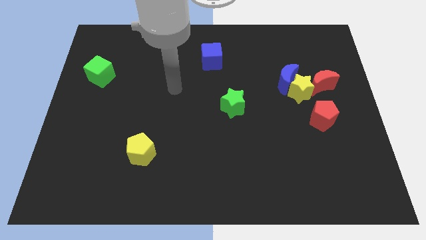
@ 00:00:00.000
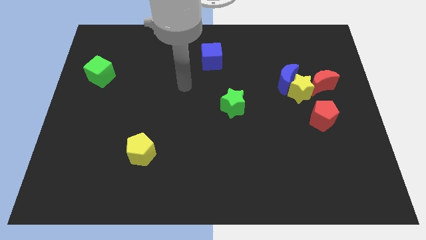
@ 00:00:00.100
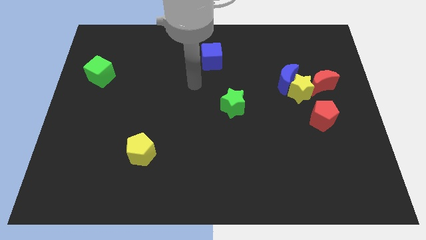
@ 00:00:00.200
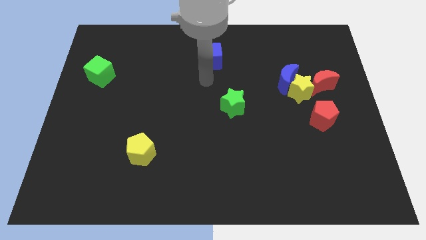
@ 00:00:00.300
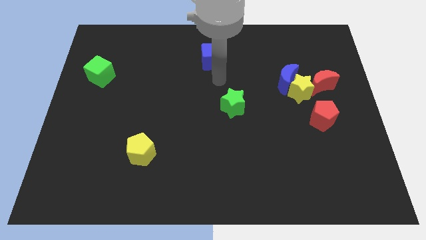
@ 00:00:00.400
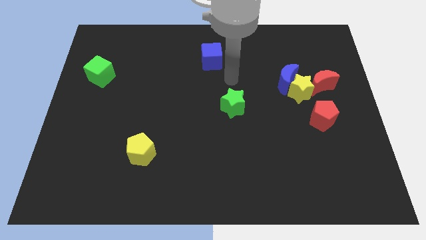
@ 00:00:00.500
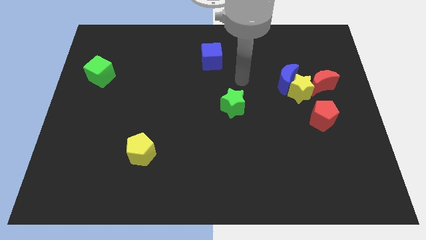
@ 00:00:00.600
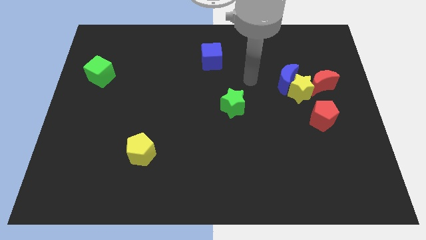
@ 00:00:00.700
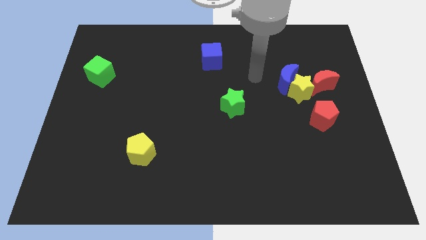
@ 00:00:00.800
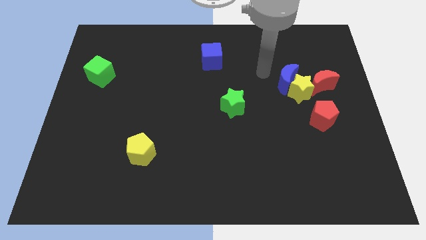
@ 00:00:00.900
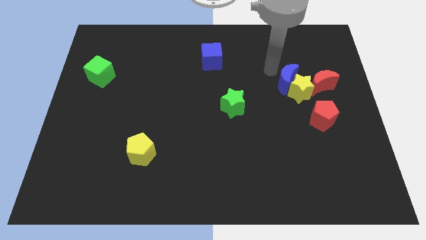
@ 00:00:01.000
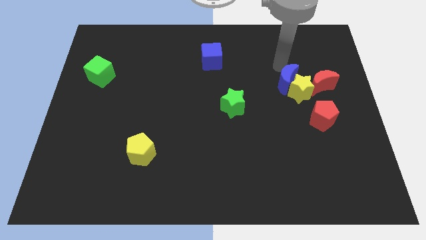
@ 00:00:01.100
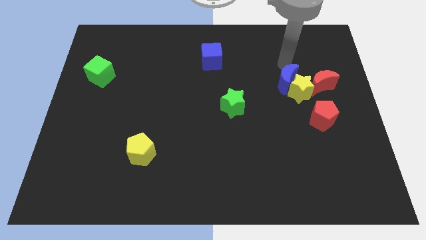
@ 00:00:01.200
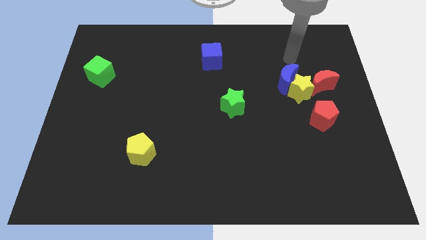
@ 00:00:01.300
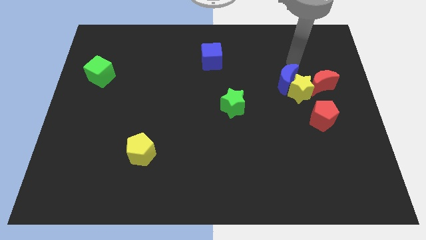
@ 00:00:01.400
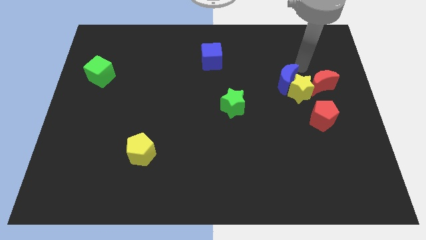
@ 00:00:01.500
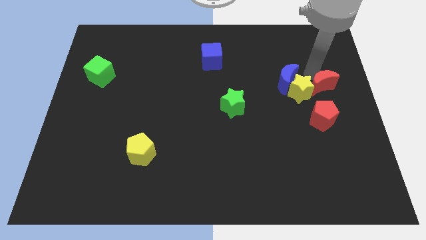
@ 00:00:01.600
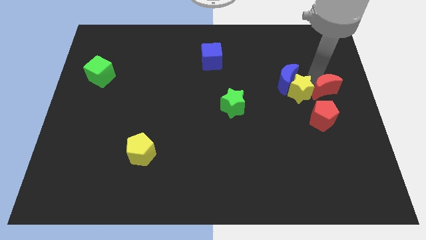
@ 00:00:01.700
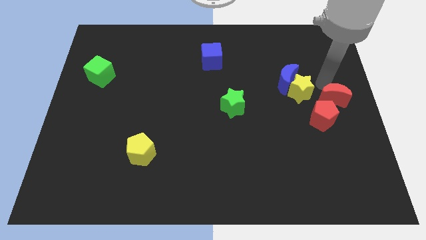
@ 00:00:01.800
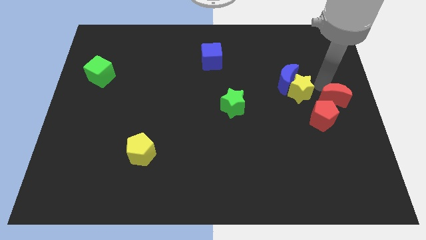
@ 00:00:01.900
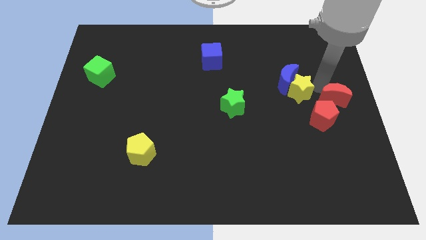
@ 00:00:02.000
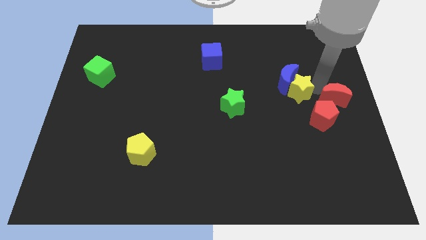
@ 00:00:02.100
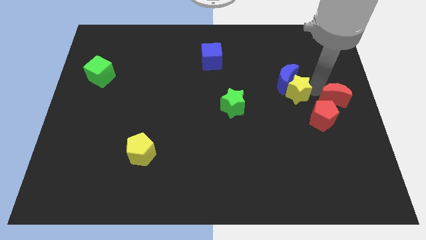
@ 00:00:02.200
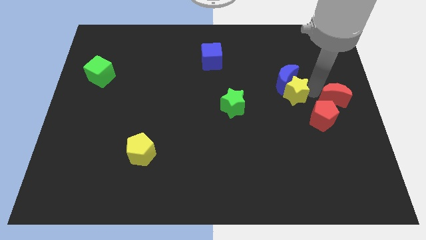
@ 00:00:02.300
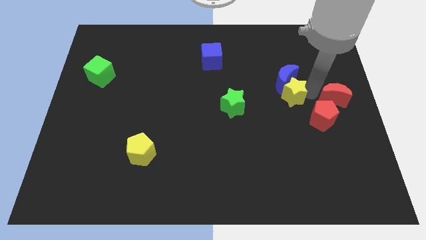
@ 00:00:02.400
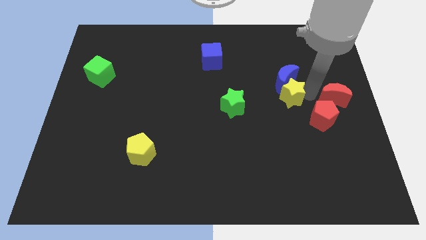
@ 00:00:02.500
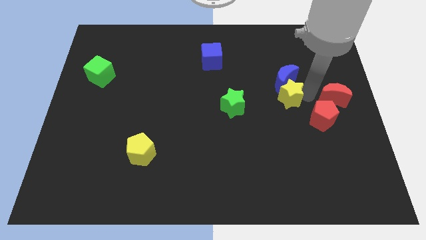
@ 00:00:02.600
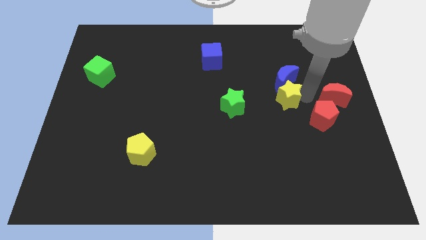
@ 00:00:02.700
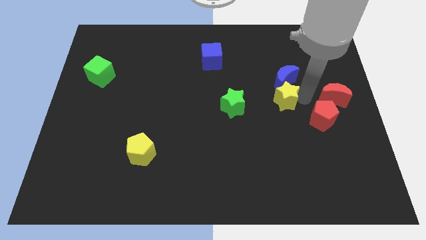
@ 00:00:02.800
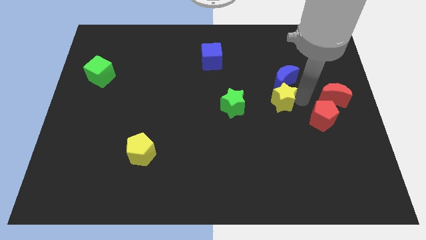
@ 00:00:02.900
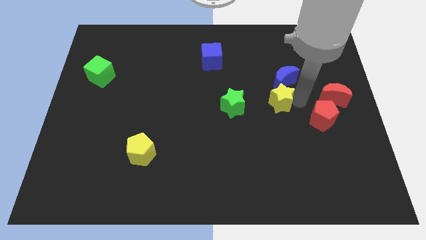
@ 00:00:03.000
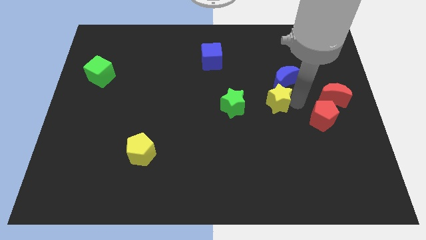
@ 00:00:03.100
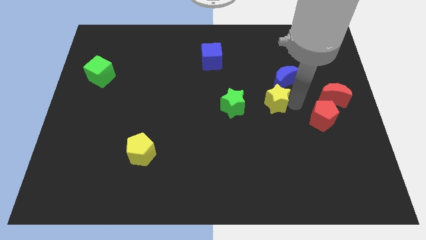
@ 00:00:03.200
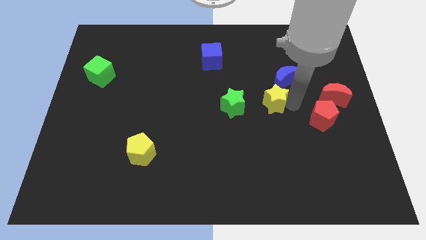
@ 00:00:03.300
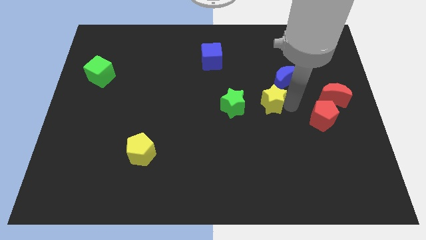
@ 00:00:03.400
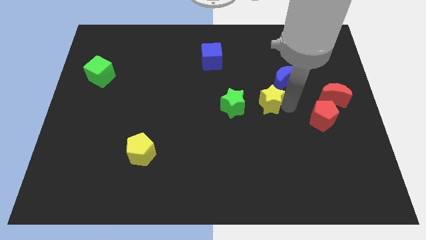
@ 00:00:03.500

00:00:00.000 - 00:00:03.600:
separate the yellow star from the group of blocks

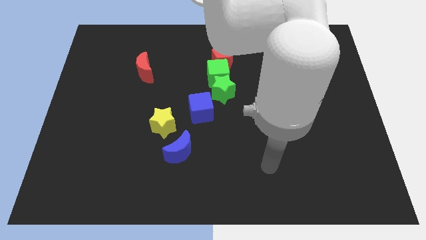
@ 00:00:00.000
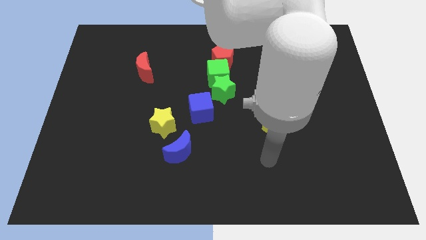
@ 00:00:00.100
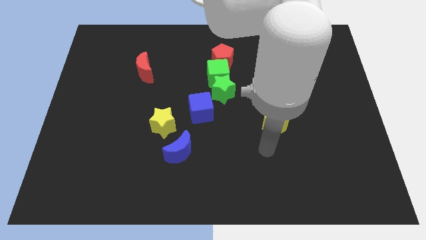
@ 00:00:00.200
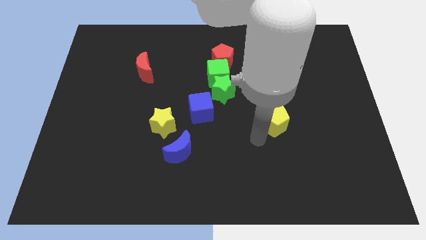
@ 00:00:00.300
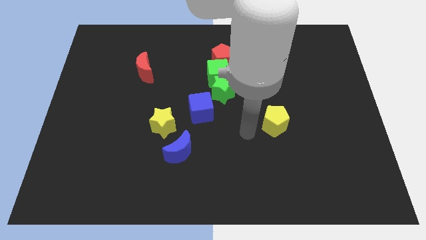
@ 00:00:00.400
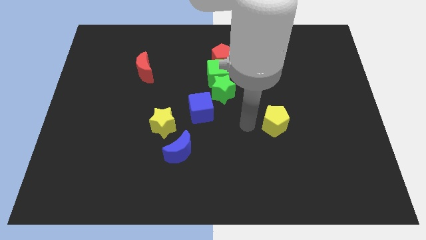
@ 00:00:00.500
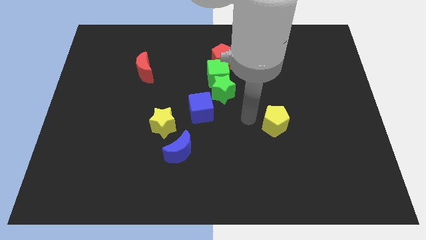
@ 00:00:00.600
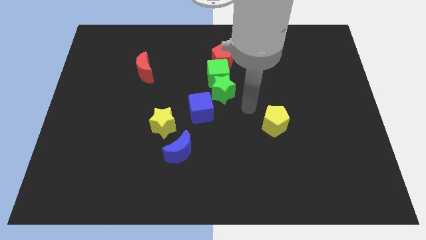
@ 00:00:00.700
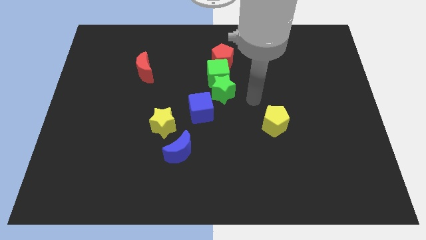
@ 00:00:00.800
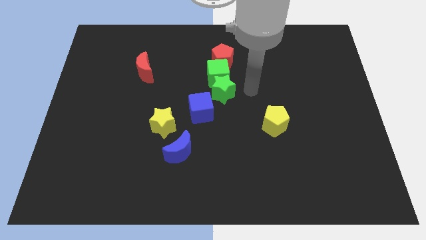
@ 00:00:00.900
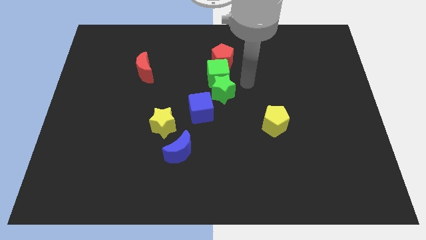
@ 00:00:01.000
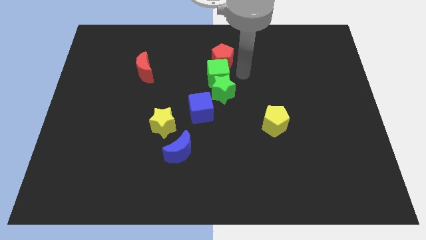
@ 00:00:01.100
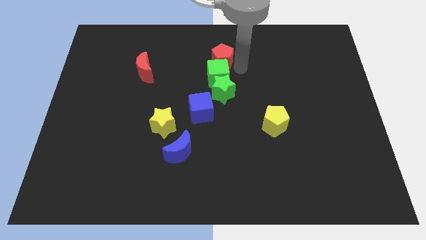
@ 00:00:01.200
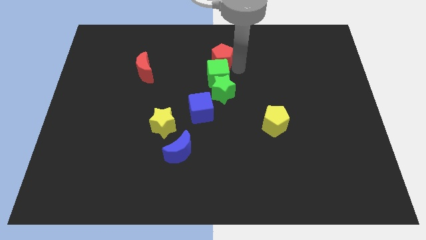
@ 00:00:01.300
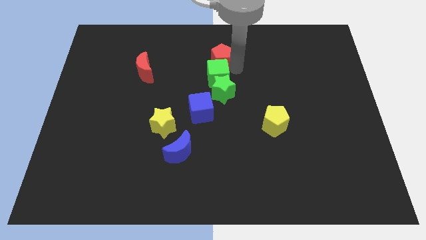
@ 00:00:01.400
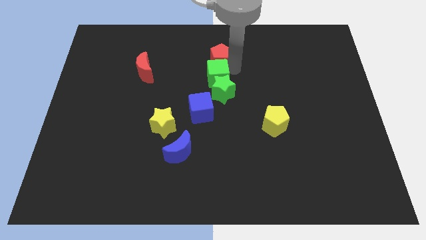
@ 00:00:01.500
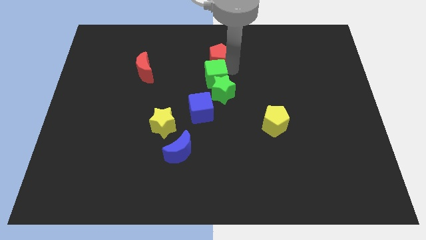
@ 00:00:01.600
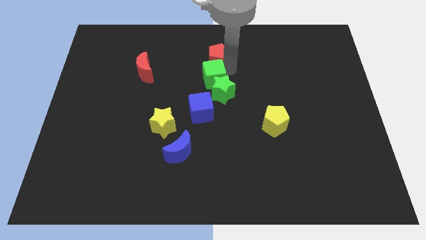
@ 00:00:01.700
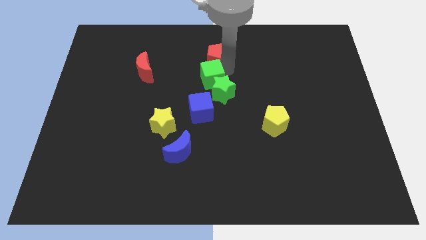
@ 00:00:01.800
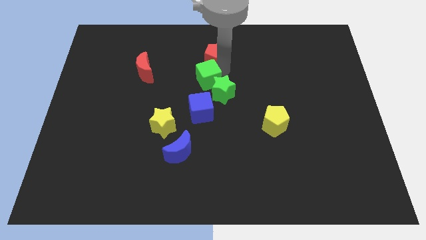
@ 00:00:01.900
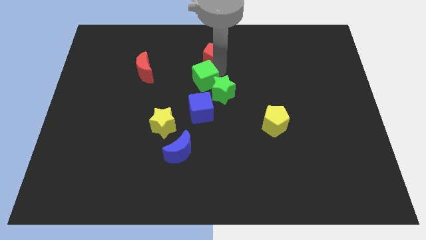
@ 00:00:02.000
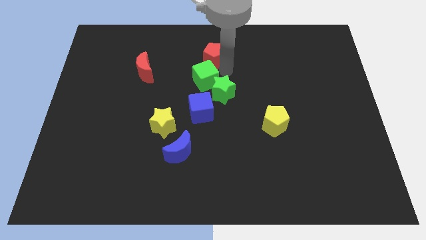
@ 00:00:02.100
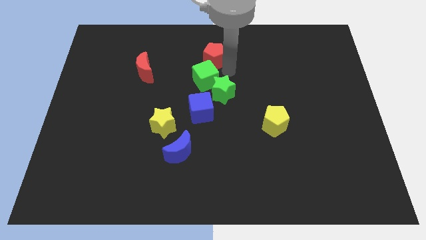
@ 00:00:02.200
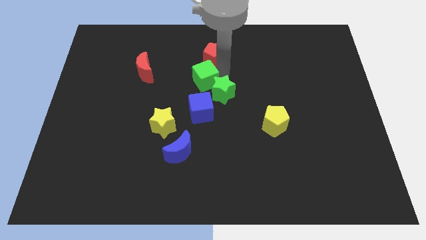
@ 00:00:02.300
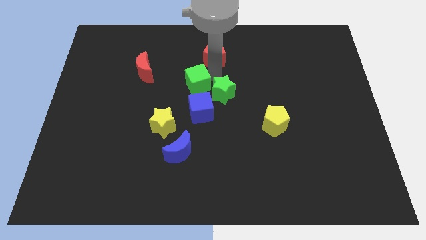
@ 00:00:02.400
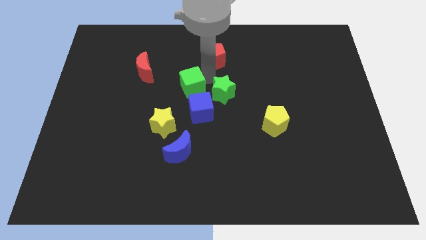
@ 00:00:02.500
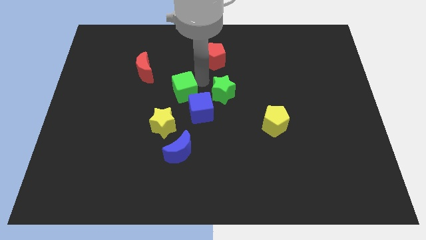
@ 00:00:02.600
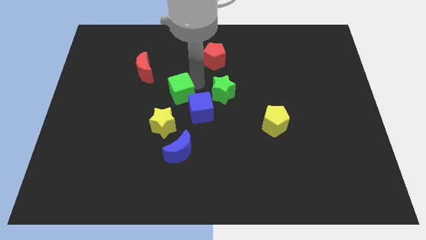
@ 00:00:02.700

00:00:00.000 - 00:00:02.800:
move the green cube away from the green star and red pentagon

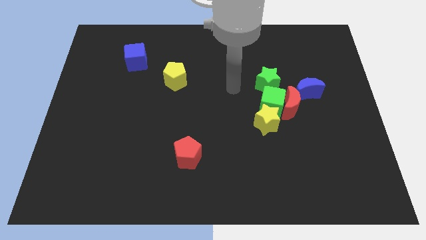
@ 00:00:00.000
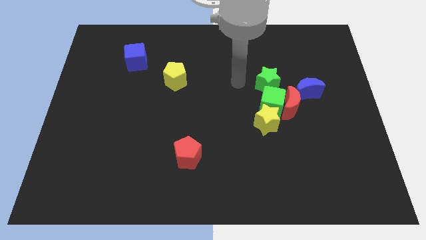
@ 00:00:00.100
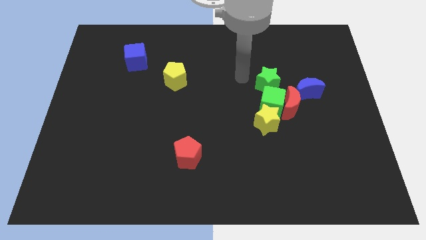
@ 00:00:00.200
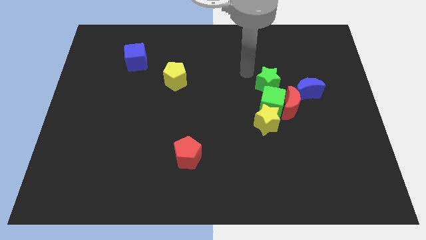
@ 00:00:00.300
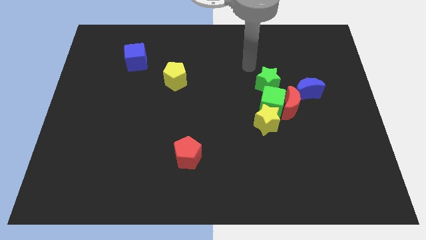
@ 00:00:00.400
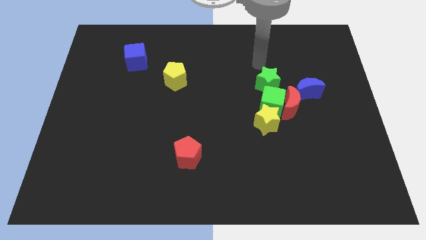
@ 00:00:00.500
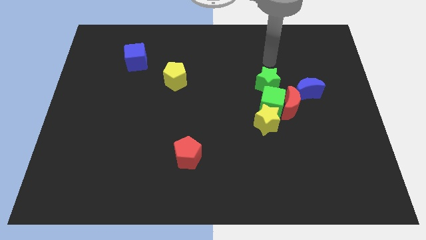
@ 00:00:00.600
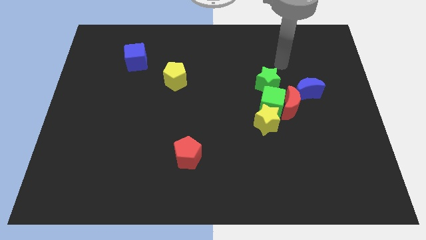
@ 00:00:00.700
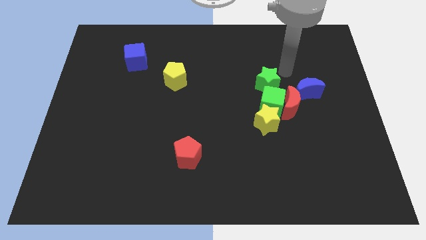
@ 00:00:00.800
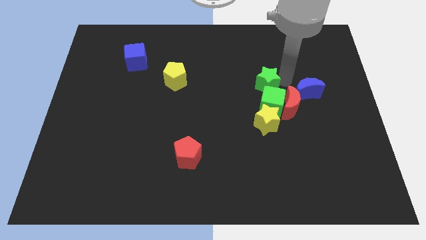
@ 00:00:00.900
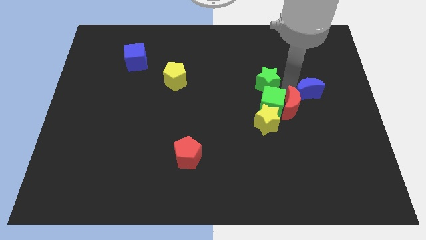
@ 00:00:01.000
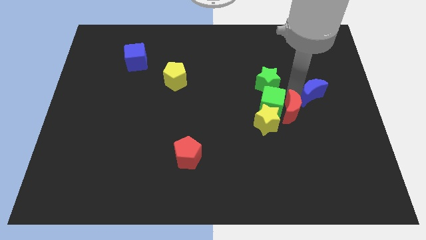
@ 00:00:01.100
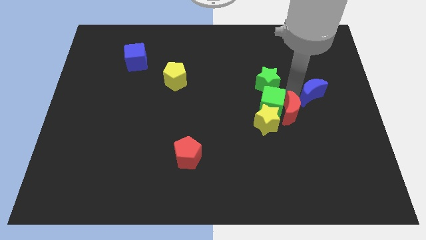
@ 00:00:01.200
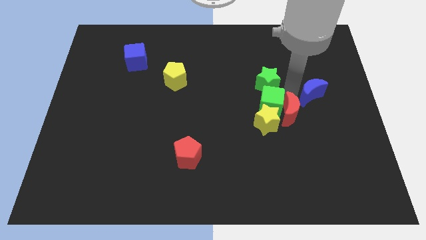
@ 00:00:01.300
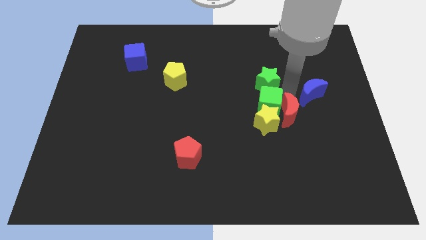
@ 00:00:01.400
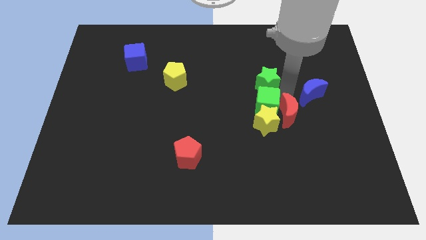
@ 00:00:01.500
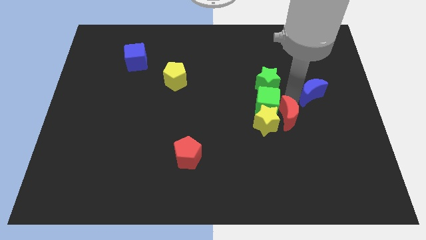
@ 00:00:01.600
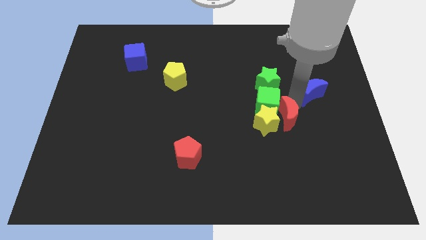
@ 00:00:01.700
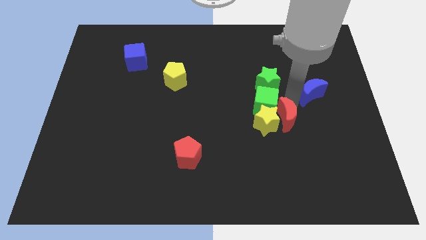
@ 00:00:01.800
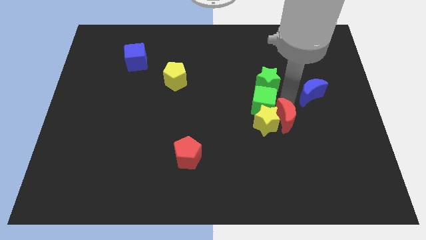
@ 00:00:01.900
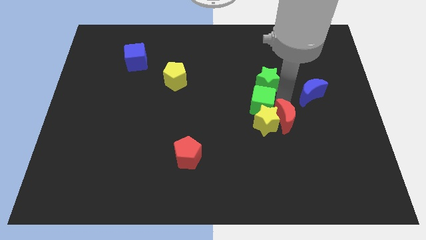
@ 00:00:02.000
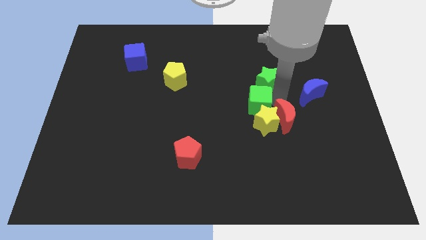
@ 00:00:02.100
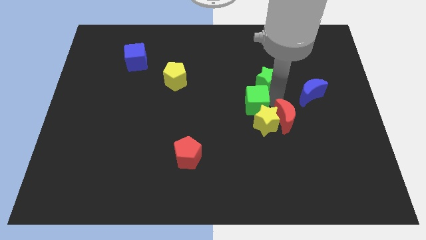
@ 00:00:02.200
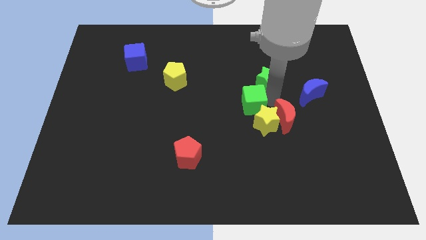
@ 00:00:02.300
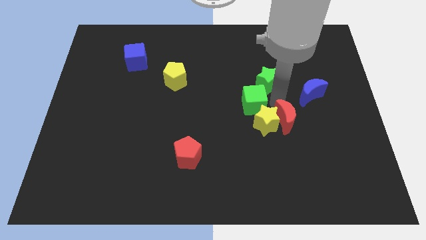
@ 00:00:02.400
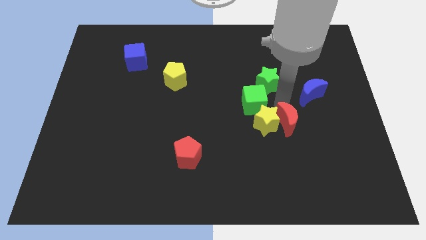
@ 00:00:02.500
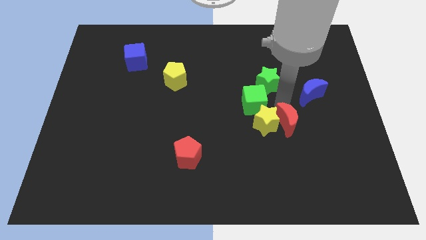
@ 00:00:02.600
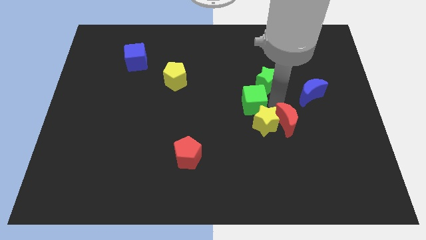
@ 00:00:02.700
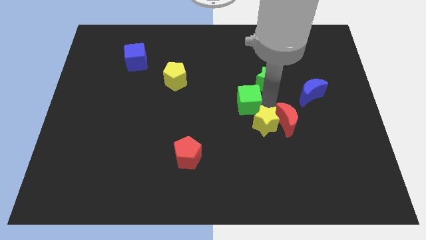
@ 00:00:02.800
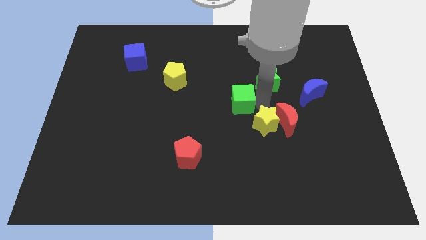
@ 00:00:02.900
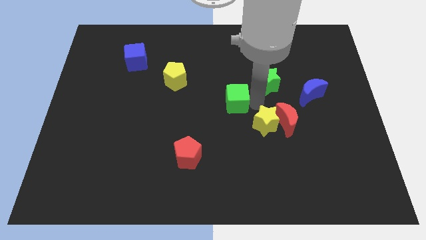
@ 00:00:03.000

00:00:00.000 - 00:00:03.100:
pull the green cube apart from the clump
